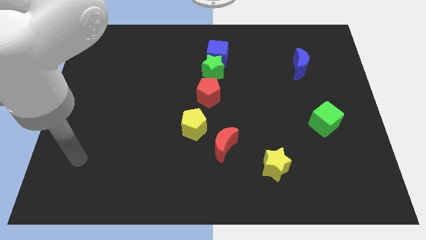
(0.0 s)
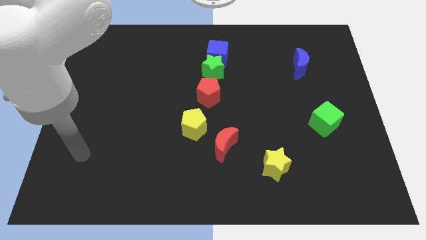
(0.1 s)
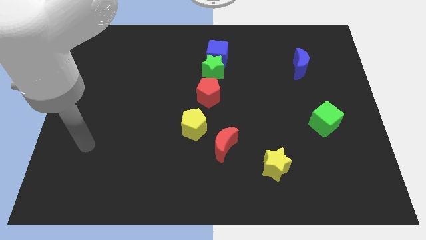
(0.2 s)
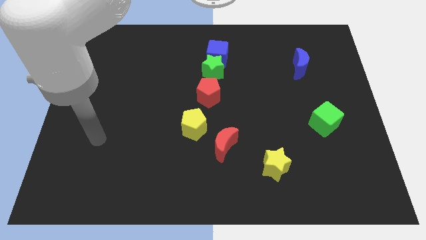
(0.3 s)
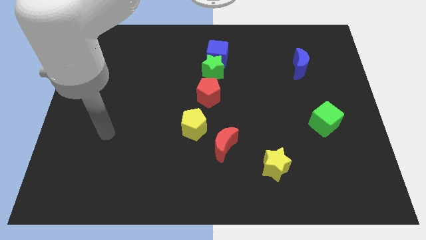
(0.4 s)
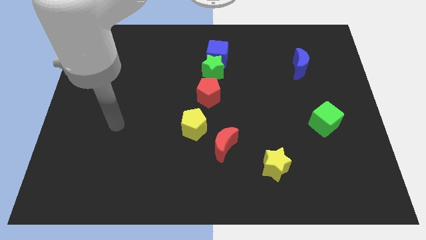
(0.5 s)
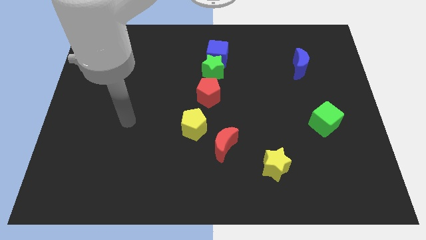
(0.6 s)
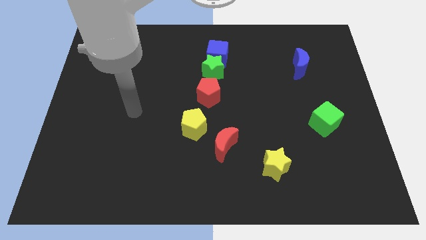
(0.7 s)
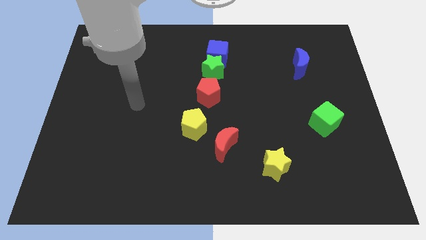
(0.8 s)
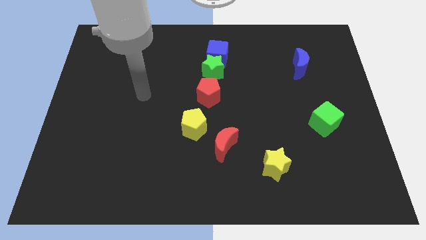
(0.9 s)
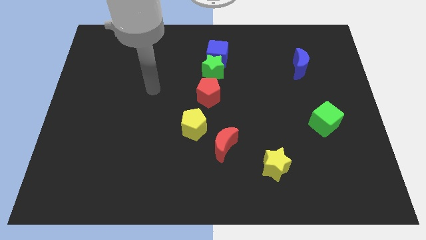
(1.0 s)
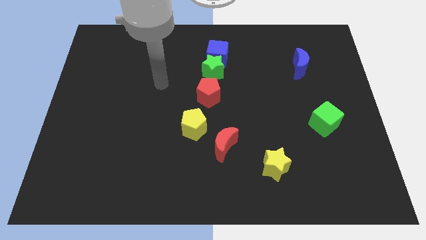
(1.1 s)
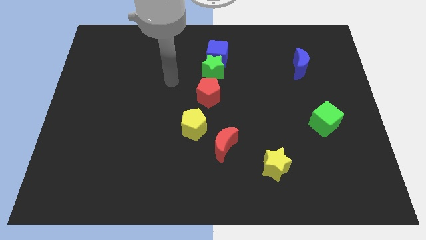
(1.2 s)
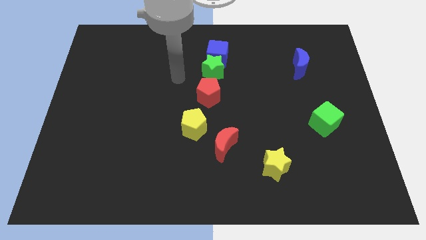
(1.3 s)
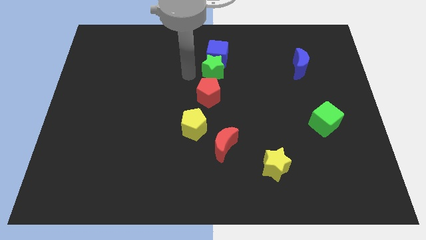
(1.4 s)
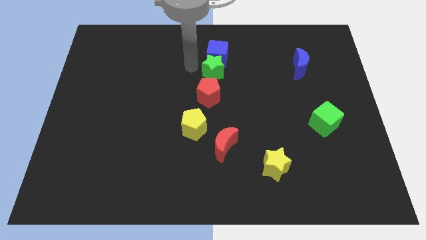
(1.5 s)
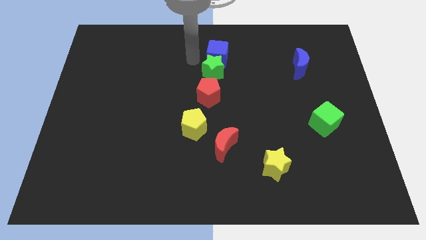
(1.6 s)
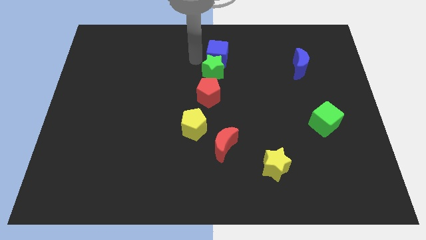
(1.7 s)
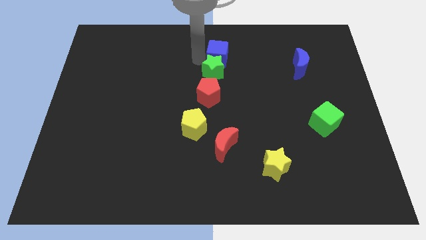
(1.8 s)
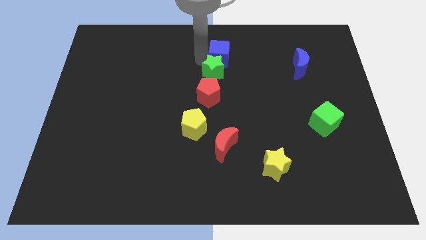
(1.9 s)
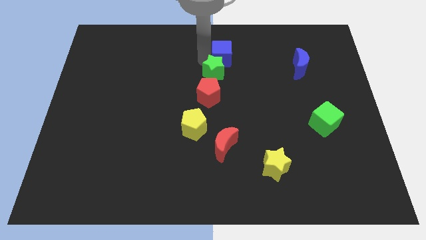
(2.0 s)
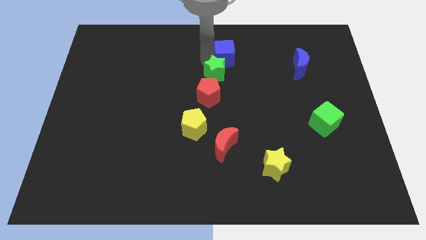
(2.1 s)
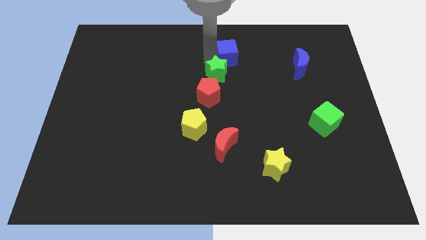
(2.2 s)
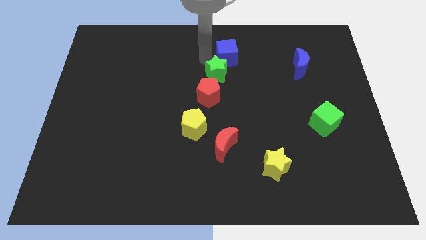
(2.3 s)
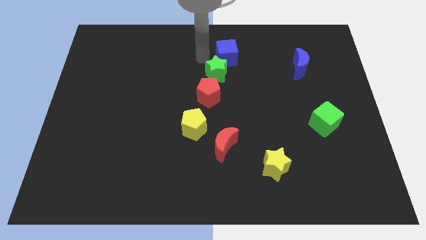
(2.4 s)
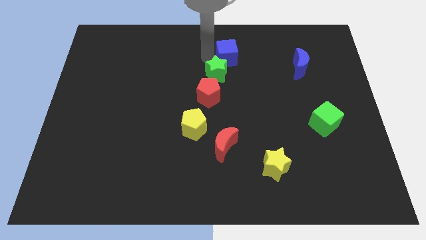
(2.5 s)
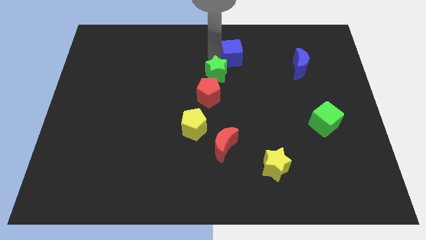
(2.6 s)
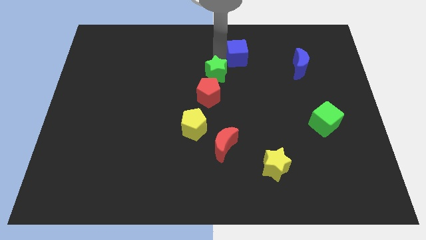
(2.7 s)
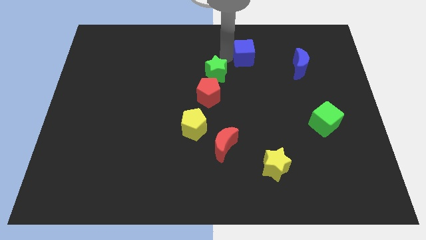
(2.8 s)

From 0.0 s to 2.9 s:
push the blue cube a little bit to the right

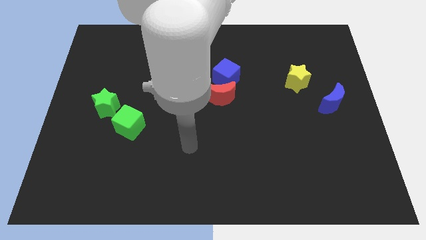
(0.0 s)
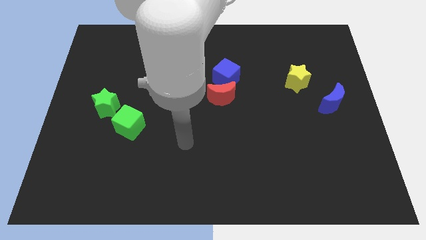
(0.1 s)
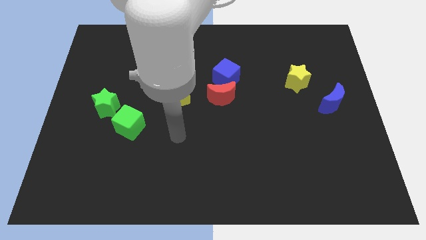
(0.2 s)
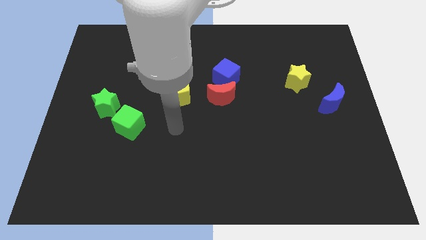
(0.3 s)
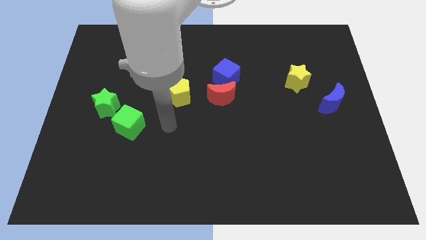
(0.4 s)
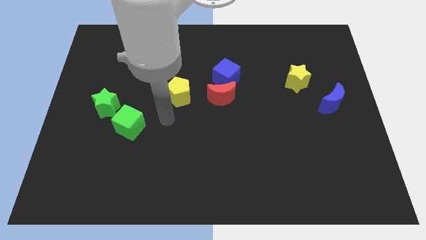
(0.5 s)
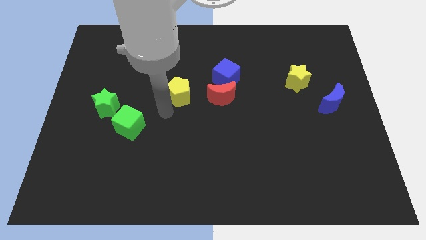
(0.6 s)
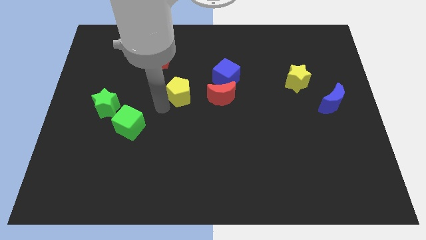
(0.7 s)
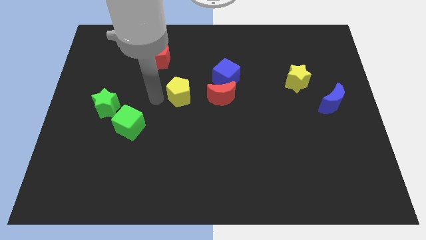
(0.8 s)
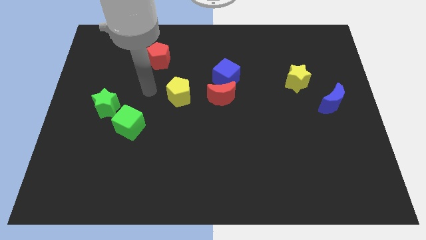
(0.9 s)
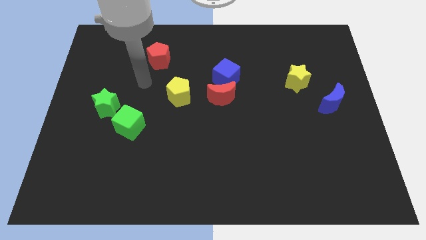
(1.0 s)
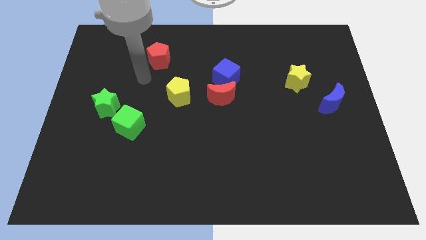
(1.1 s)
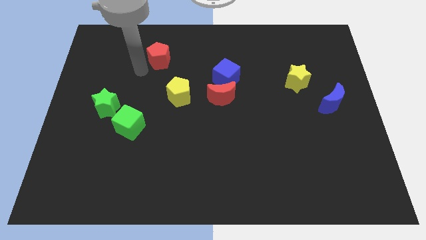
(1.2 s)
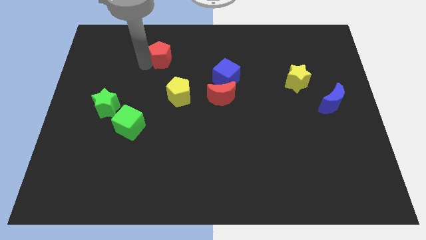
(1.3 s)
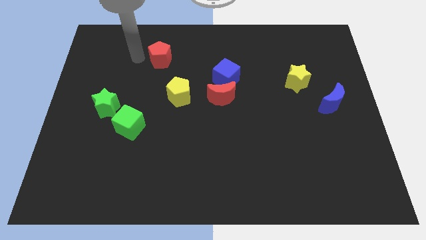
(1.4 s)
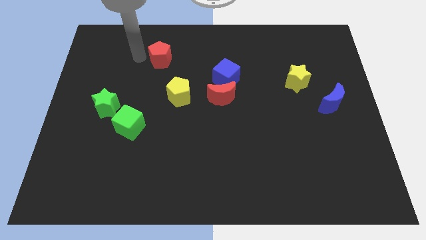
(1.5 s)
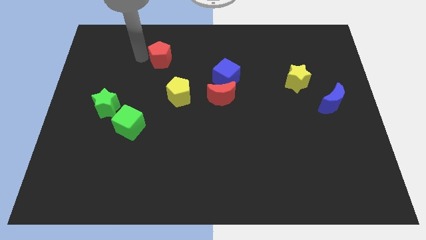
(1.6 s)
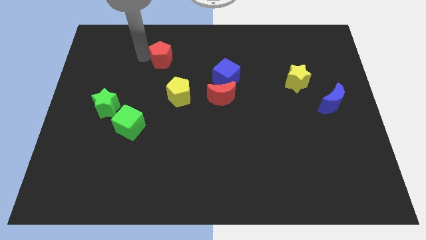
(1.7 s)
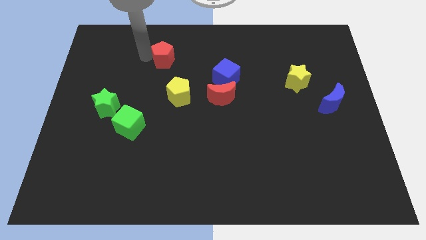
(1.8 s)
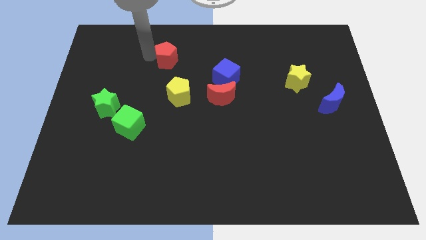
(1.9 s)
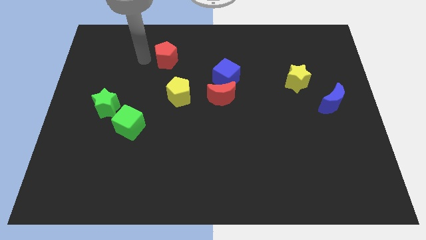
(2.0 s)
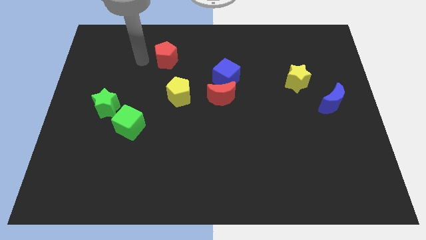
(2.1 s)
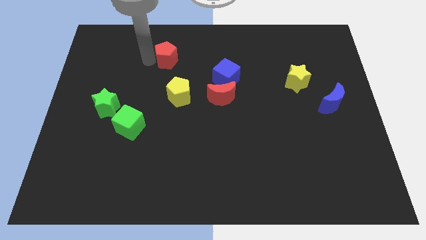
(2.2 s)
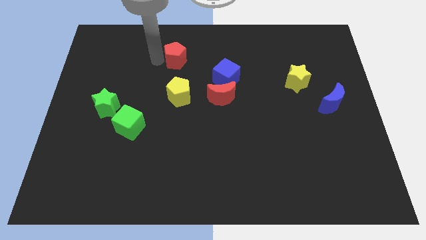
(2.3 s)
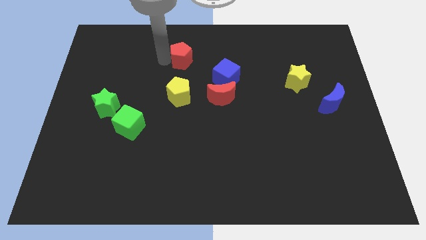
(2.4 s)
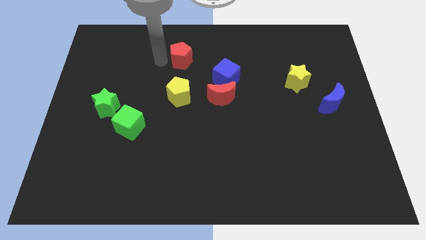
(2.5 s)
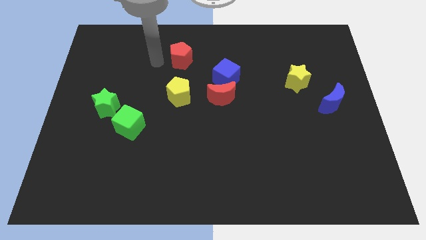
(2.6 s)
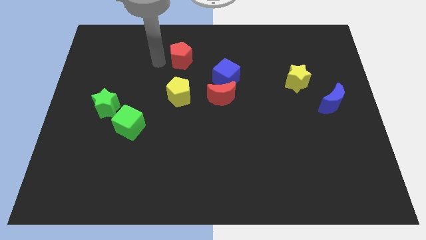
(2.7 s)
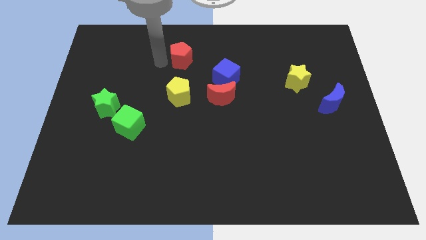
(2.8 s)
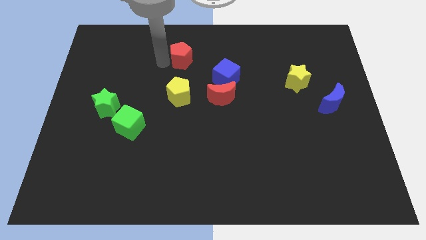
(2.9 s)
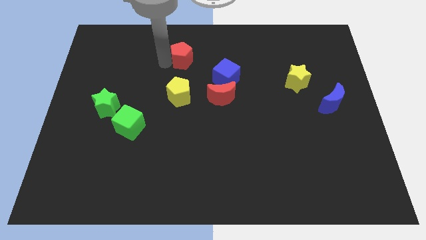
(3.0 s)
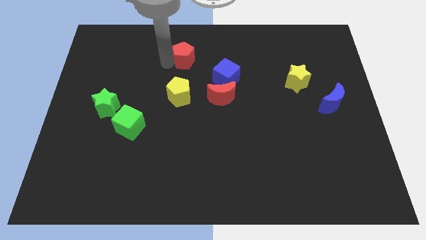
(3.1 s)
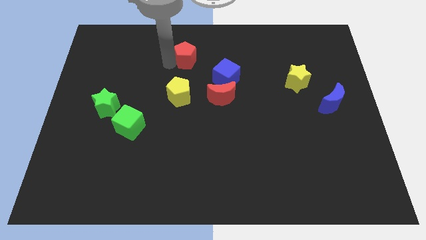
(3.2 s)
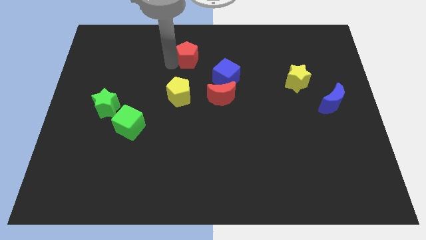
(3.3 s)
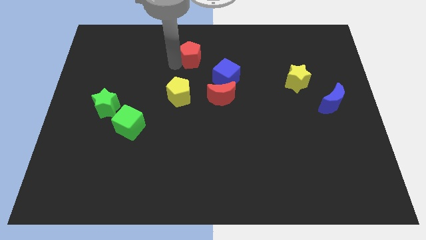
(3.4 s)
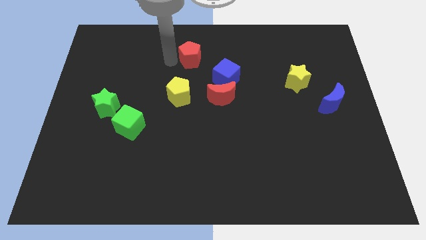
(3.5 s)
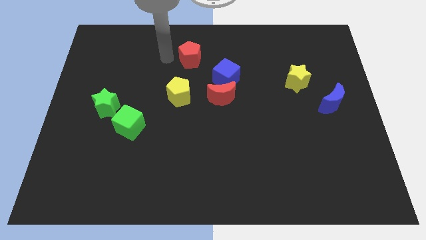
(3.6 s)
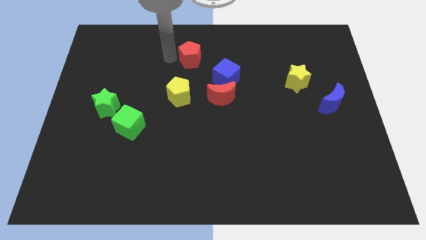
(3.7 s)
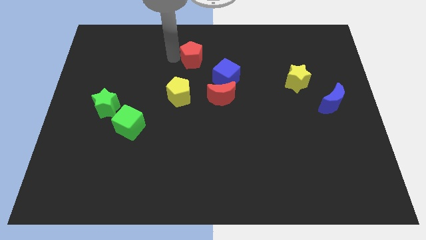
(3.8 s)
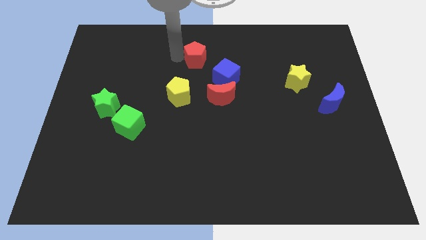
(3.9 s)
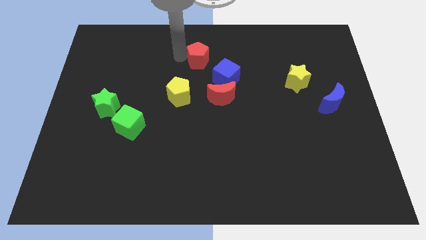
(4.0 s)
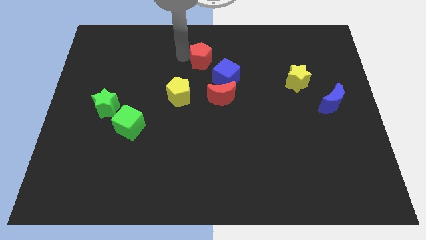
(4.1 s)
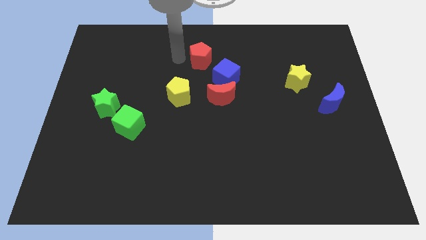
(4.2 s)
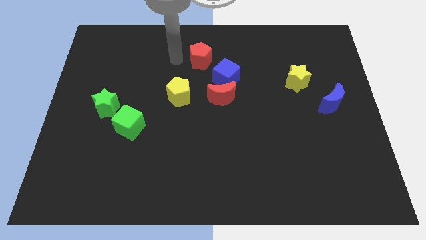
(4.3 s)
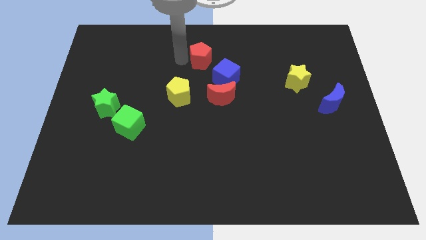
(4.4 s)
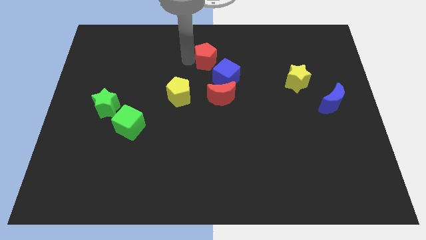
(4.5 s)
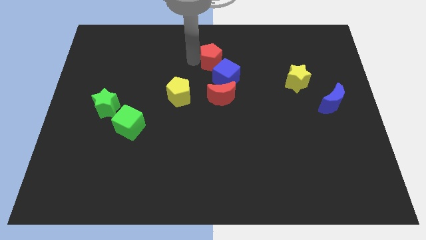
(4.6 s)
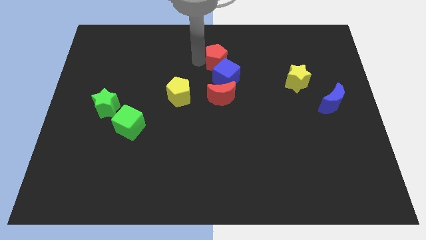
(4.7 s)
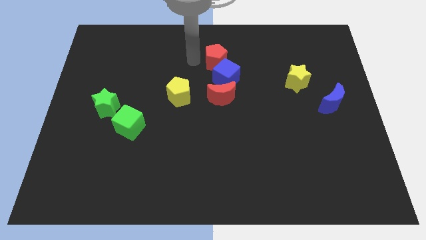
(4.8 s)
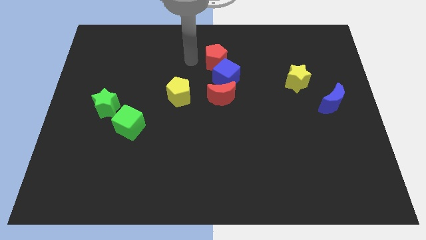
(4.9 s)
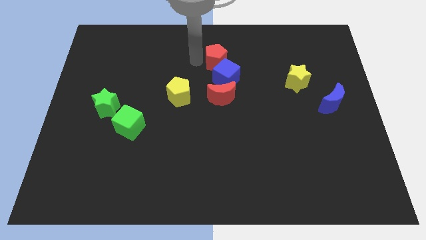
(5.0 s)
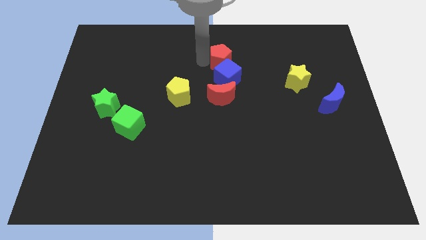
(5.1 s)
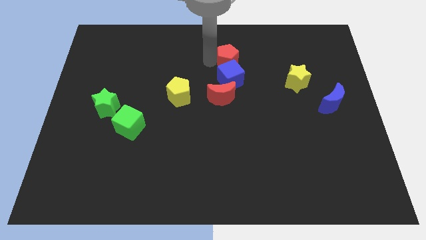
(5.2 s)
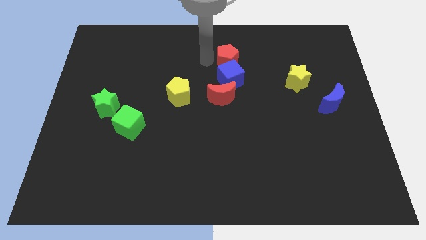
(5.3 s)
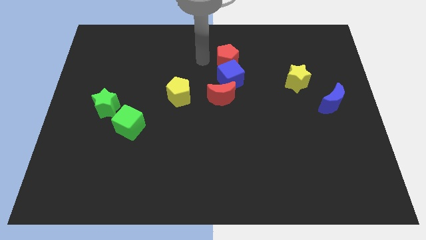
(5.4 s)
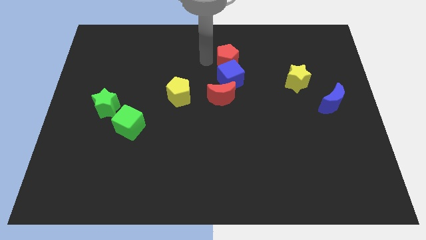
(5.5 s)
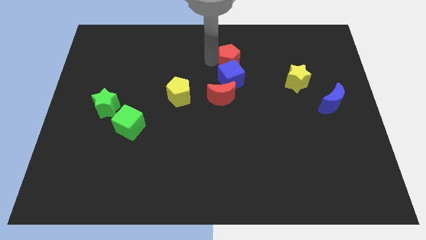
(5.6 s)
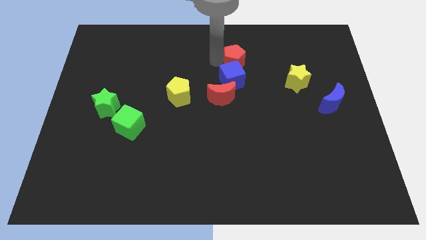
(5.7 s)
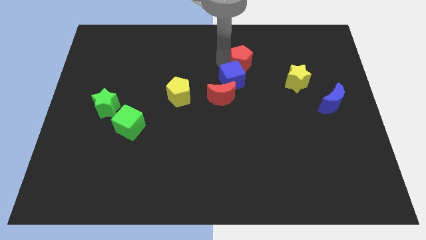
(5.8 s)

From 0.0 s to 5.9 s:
push the red pentagon to the right
